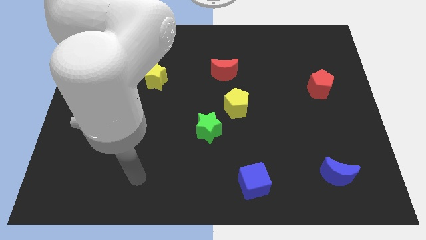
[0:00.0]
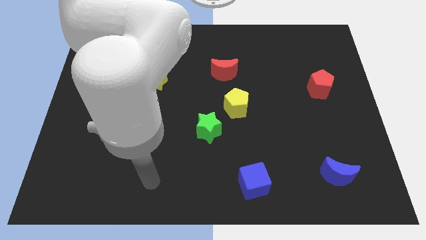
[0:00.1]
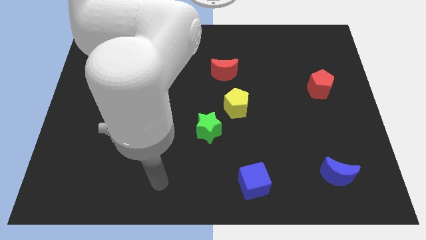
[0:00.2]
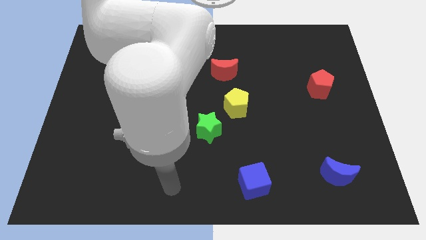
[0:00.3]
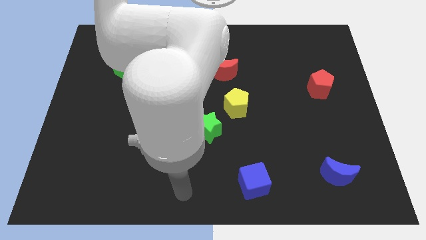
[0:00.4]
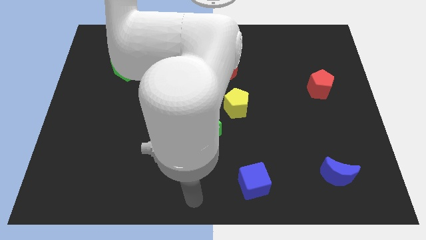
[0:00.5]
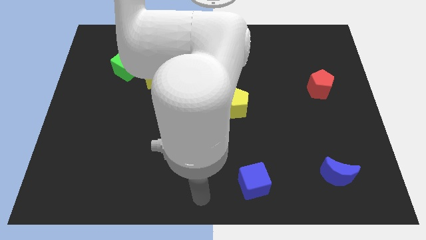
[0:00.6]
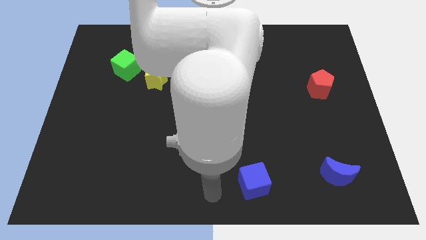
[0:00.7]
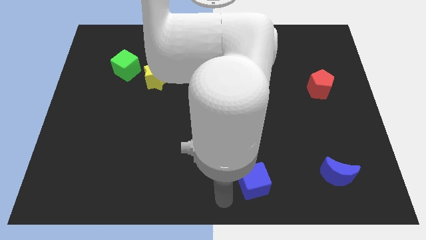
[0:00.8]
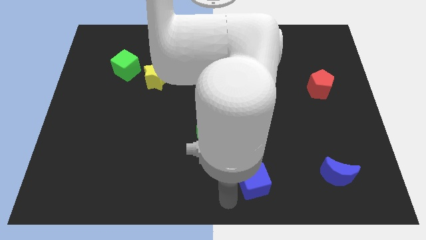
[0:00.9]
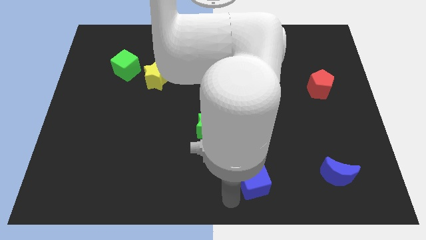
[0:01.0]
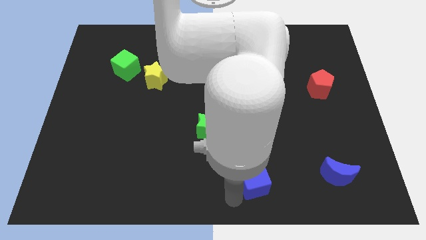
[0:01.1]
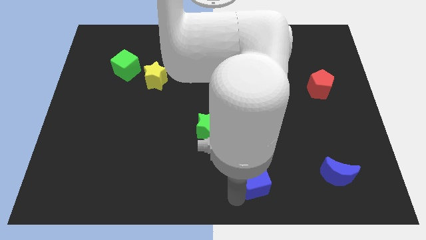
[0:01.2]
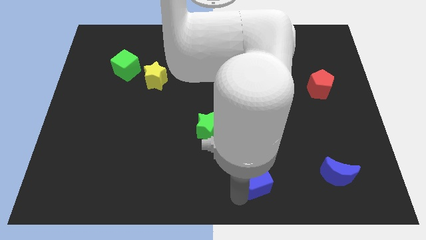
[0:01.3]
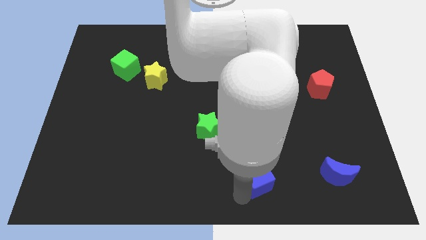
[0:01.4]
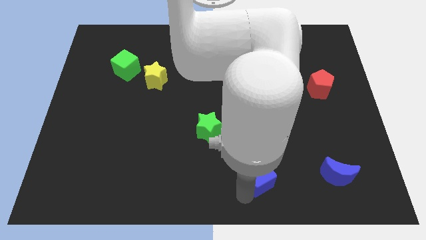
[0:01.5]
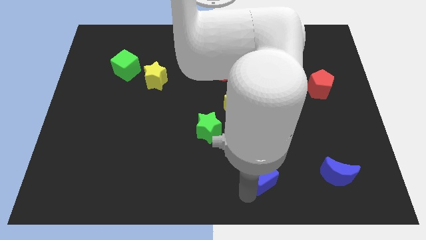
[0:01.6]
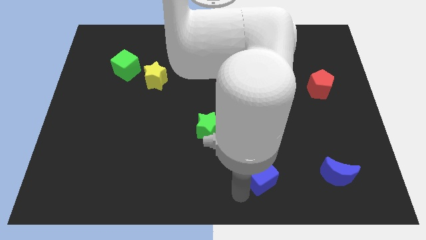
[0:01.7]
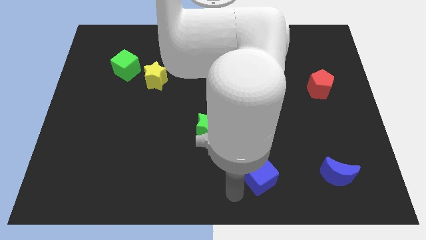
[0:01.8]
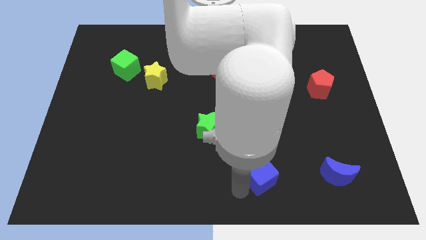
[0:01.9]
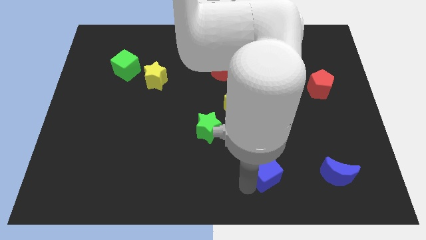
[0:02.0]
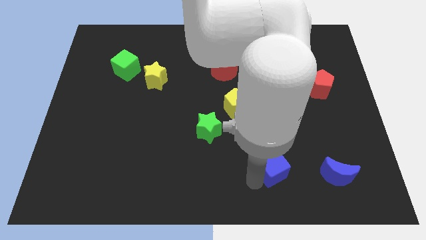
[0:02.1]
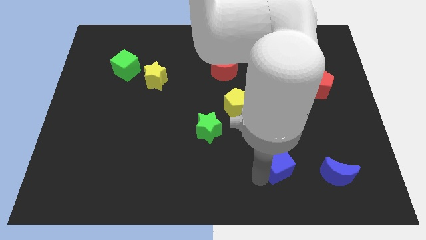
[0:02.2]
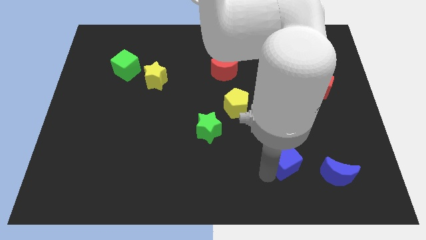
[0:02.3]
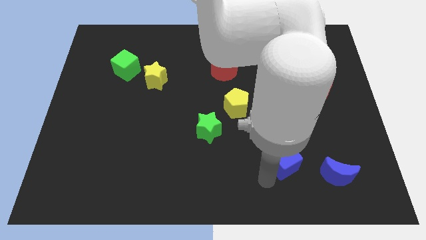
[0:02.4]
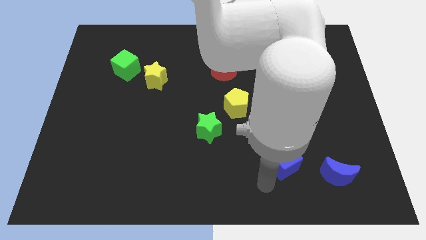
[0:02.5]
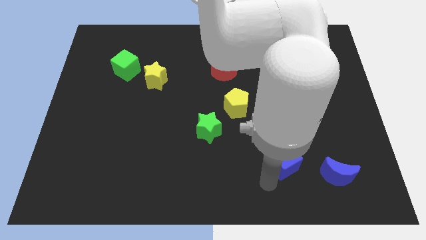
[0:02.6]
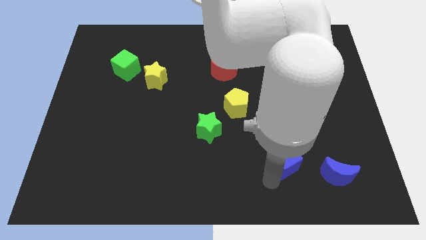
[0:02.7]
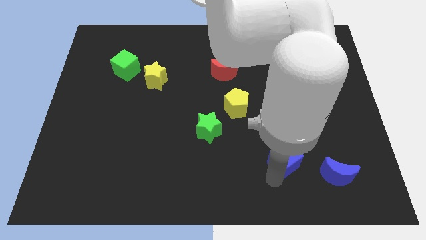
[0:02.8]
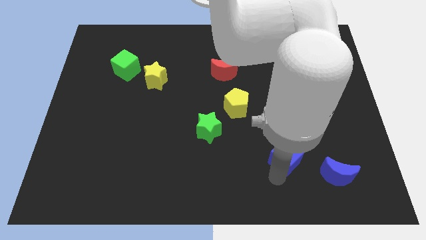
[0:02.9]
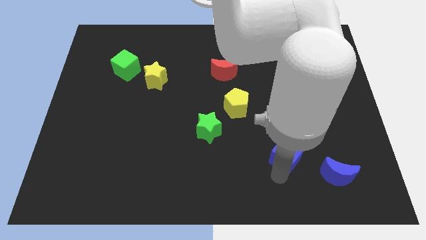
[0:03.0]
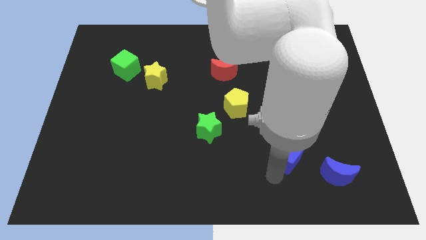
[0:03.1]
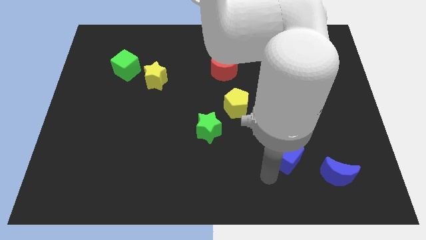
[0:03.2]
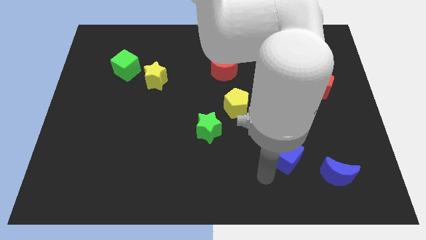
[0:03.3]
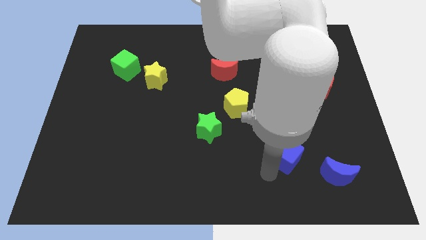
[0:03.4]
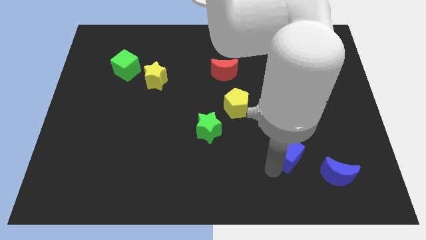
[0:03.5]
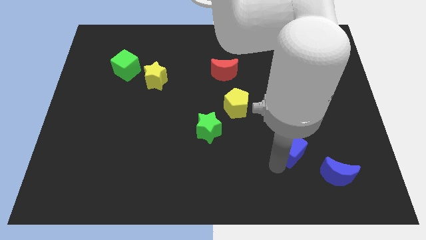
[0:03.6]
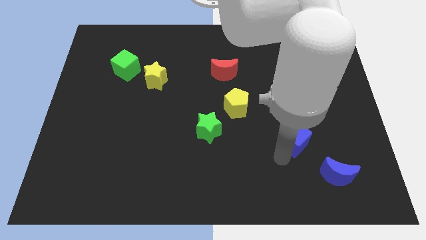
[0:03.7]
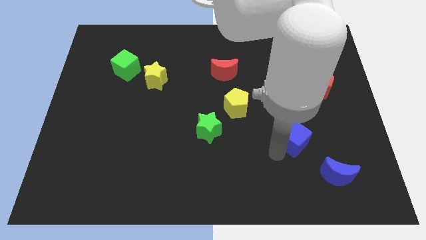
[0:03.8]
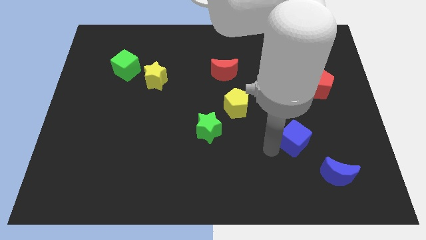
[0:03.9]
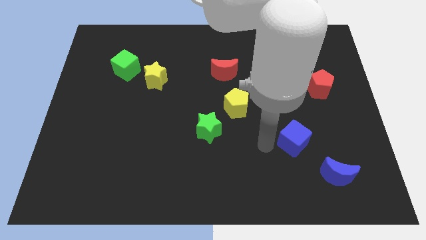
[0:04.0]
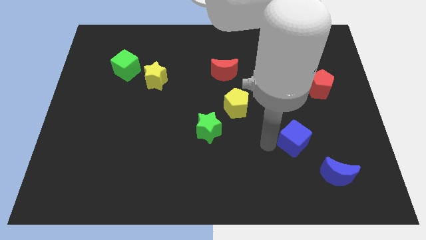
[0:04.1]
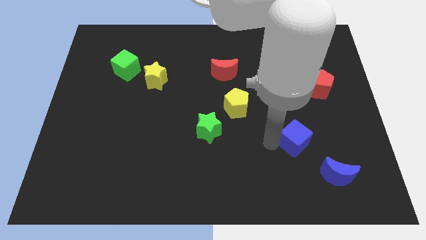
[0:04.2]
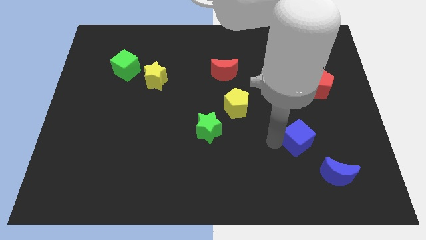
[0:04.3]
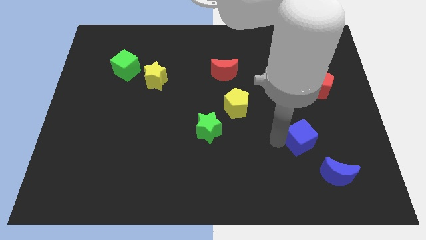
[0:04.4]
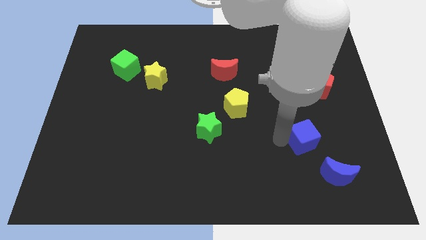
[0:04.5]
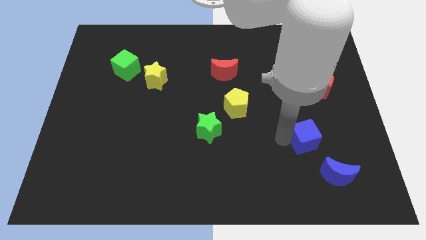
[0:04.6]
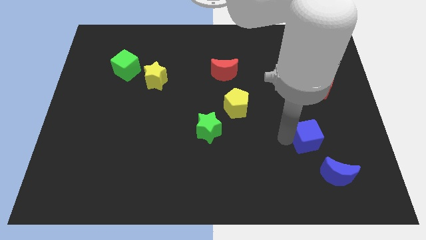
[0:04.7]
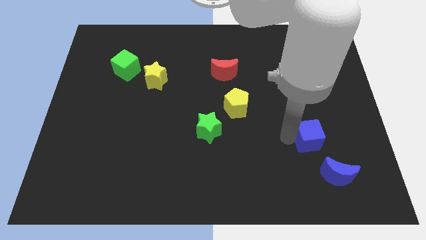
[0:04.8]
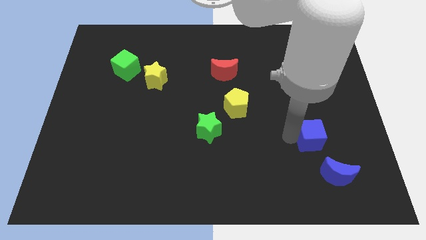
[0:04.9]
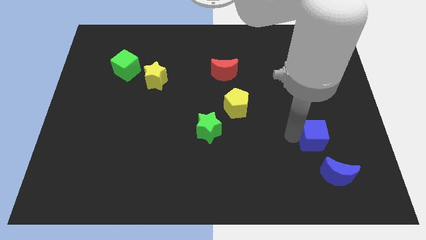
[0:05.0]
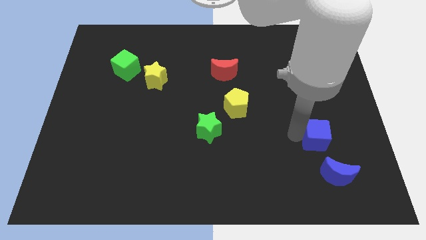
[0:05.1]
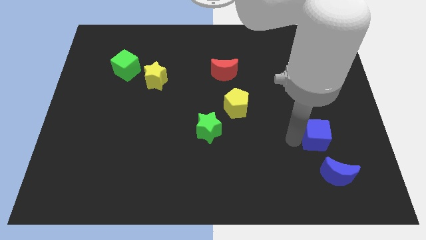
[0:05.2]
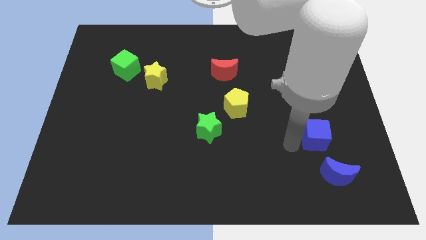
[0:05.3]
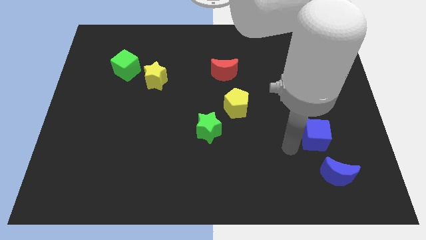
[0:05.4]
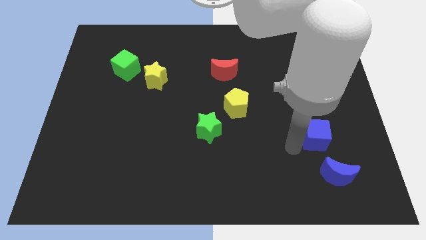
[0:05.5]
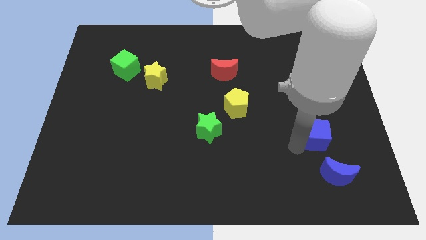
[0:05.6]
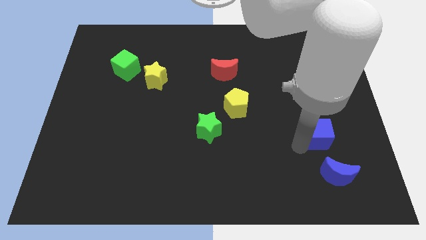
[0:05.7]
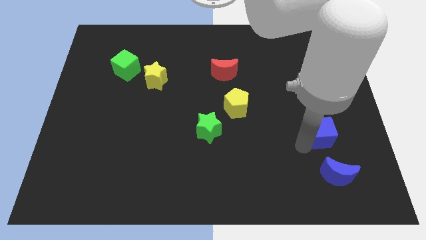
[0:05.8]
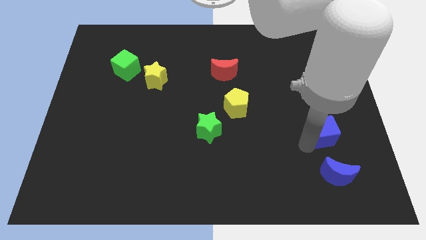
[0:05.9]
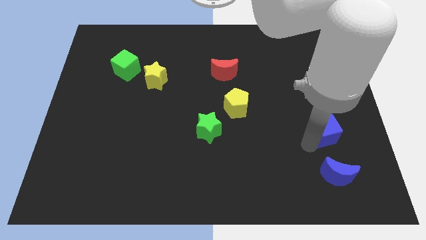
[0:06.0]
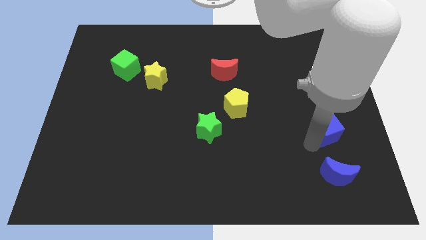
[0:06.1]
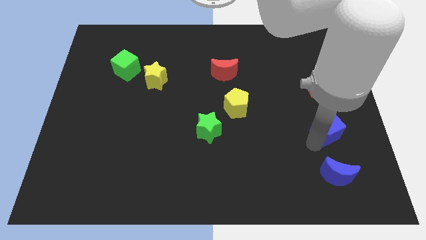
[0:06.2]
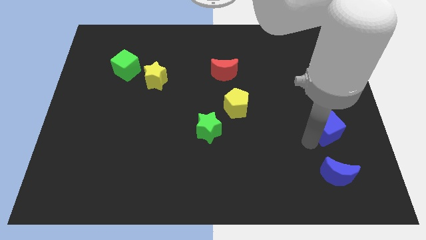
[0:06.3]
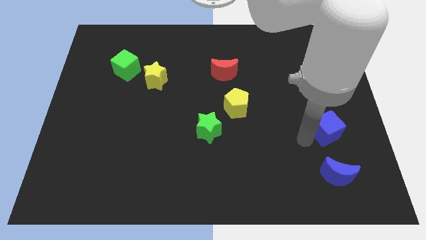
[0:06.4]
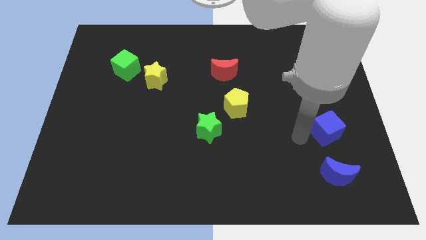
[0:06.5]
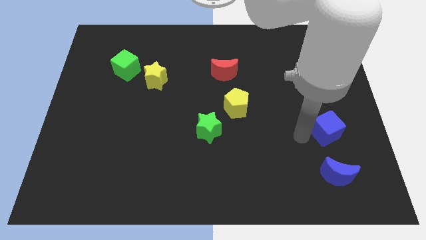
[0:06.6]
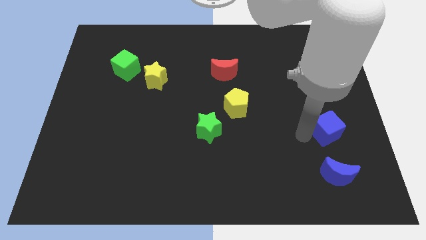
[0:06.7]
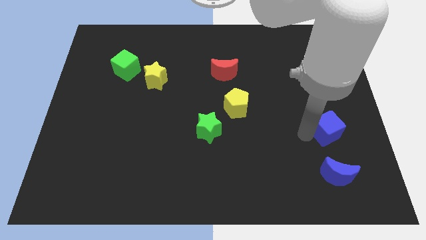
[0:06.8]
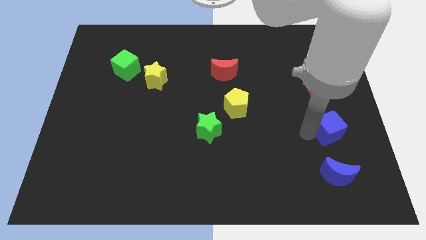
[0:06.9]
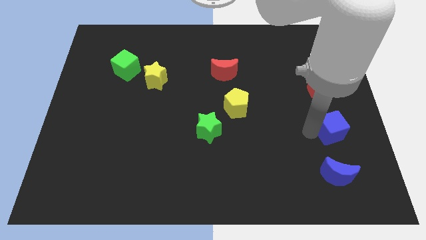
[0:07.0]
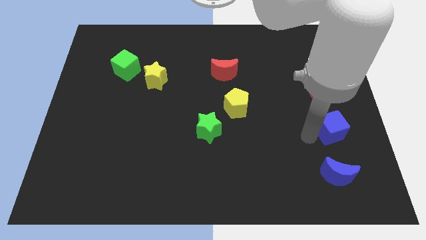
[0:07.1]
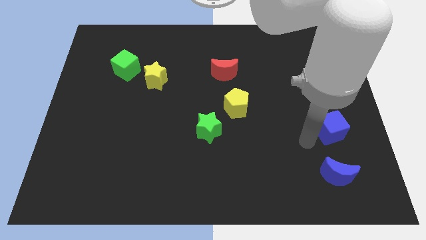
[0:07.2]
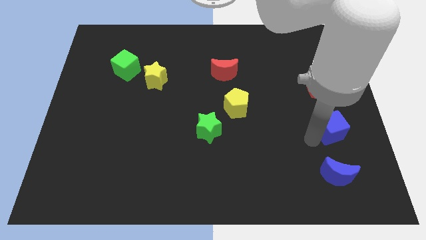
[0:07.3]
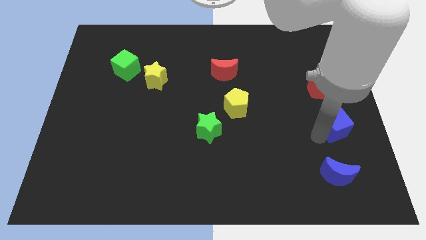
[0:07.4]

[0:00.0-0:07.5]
move the blue cube to the right side
